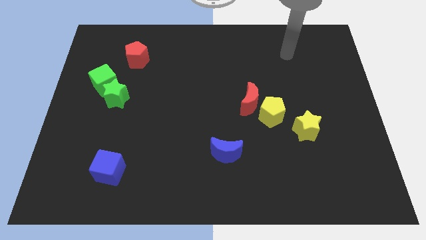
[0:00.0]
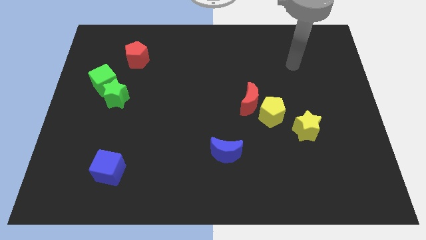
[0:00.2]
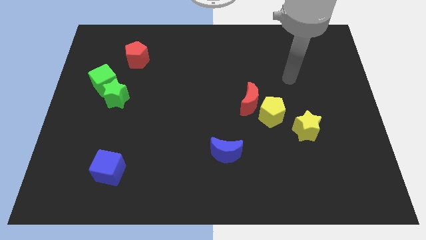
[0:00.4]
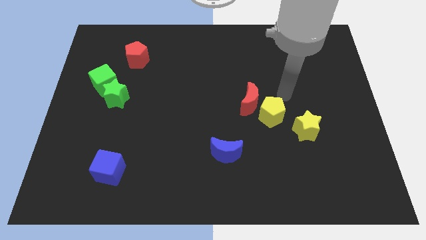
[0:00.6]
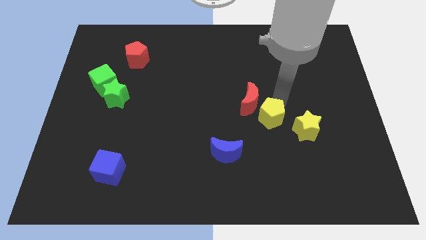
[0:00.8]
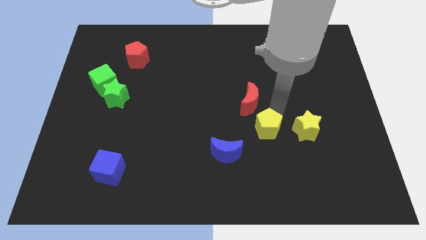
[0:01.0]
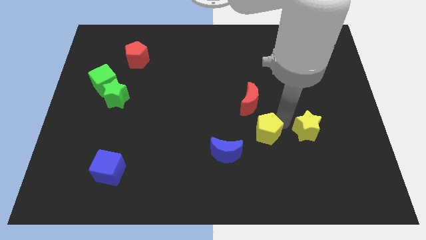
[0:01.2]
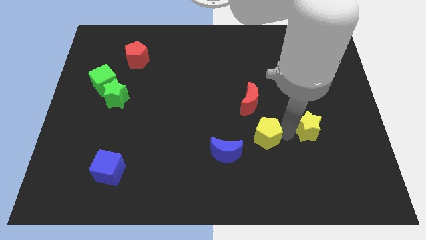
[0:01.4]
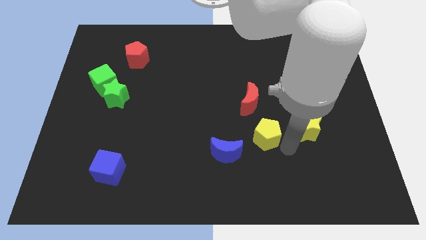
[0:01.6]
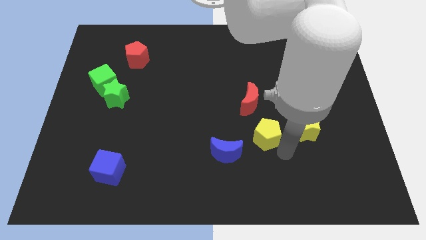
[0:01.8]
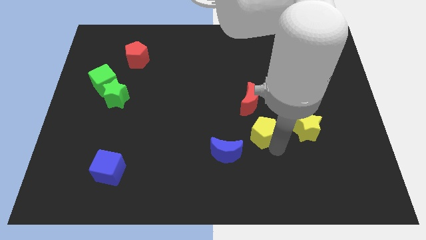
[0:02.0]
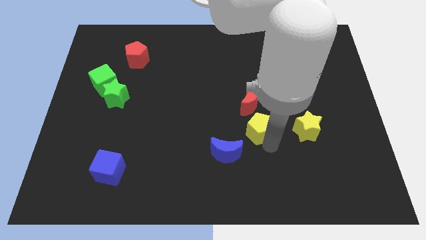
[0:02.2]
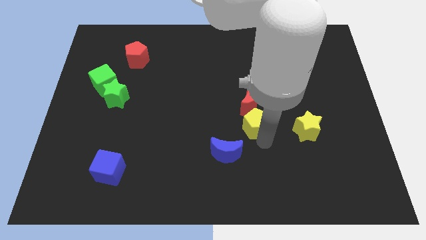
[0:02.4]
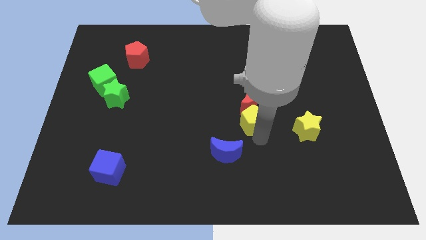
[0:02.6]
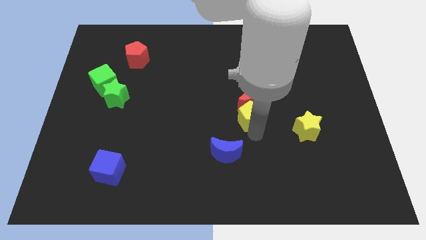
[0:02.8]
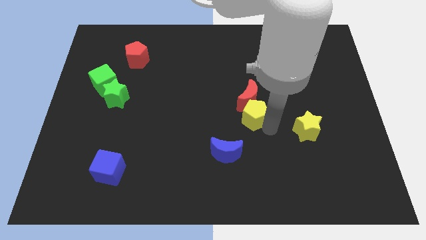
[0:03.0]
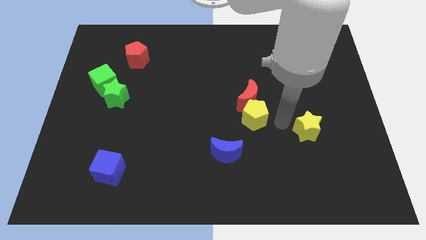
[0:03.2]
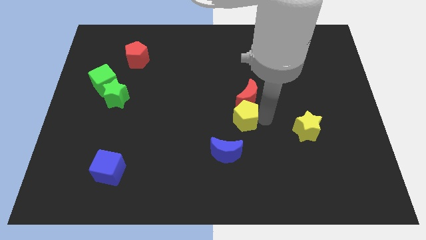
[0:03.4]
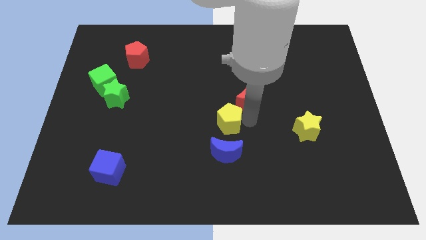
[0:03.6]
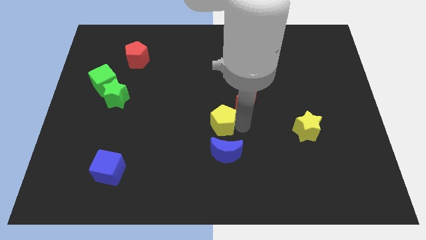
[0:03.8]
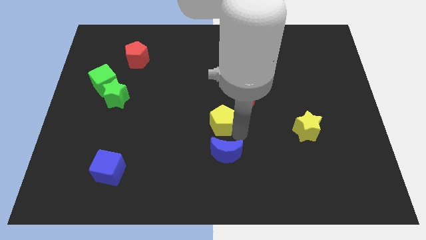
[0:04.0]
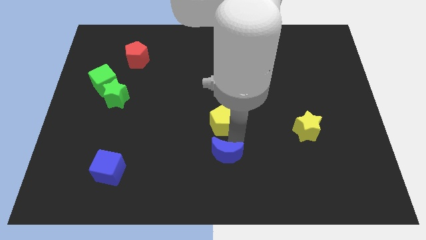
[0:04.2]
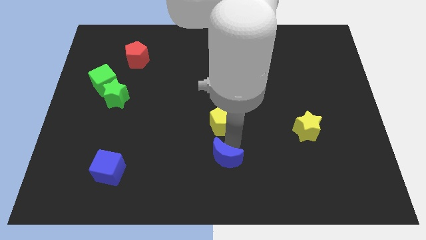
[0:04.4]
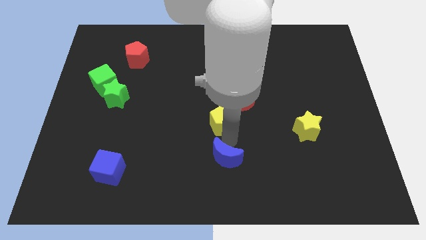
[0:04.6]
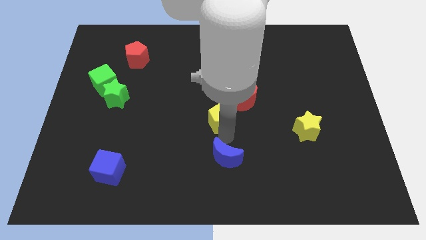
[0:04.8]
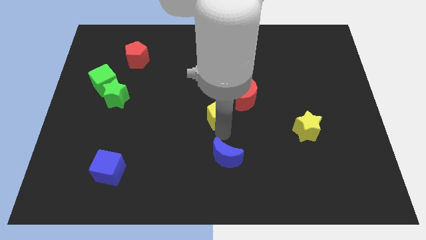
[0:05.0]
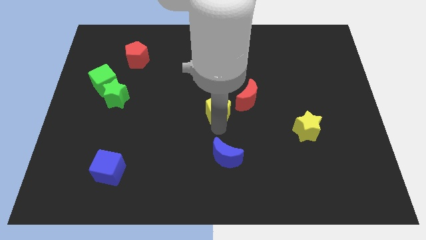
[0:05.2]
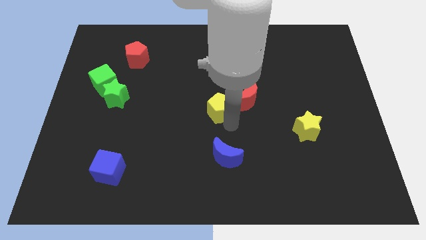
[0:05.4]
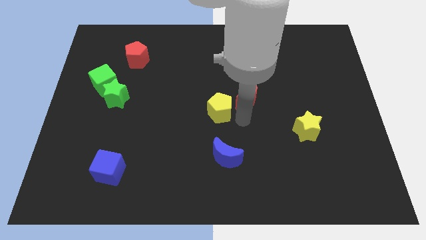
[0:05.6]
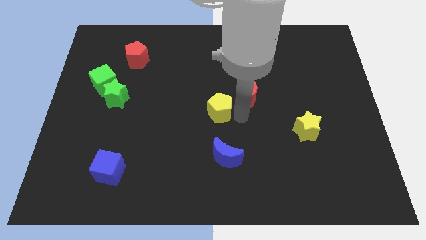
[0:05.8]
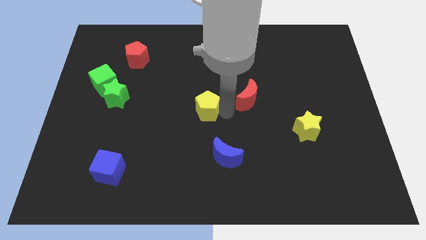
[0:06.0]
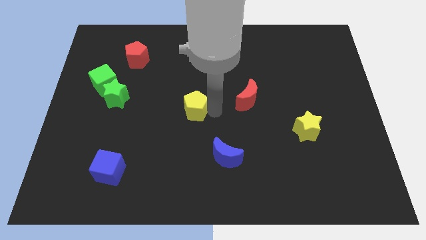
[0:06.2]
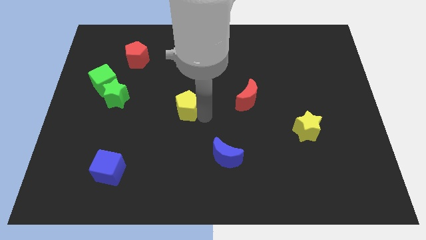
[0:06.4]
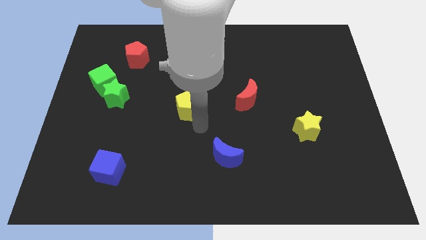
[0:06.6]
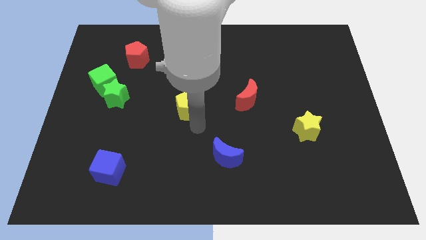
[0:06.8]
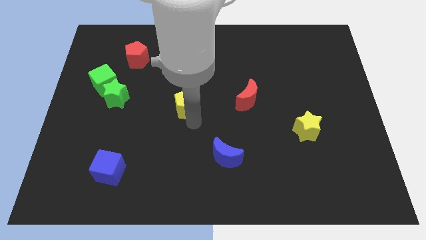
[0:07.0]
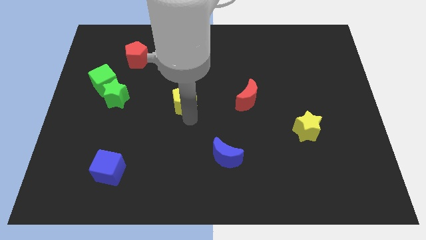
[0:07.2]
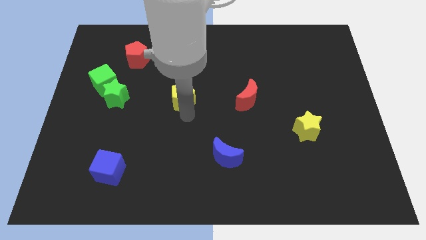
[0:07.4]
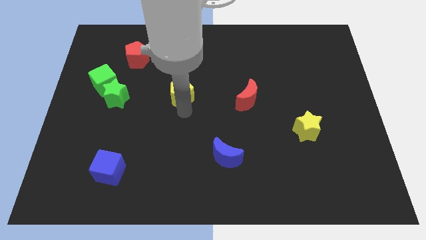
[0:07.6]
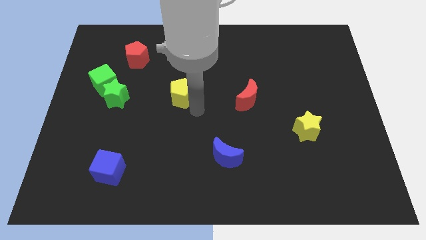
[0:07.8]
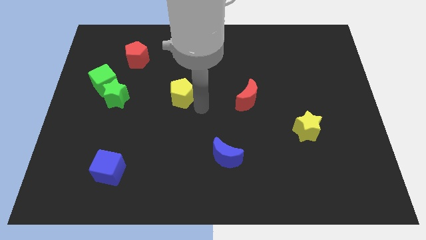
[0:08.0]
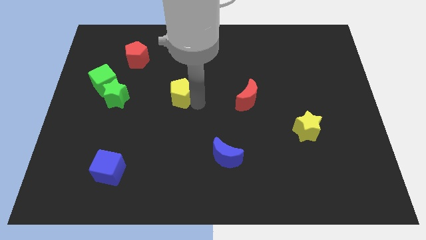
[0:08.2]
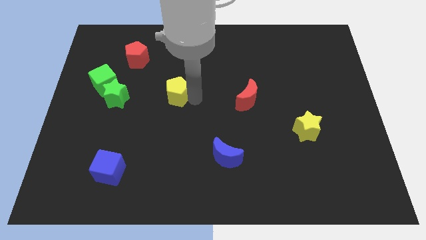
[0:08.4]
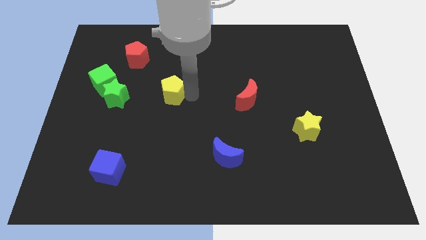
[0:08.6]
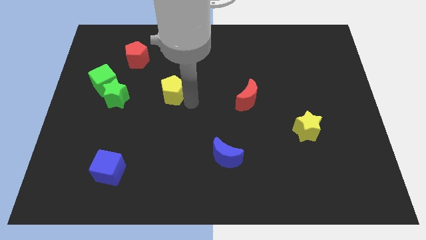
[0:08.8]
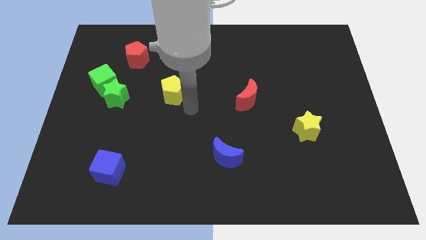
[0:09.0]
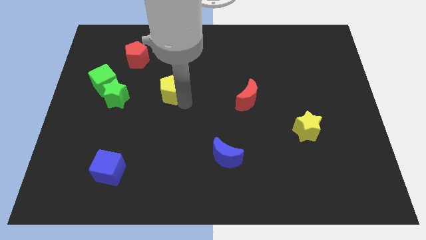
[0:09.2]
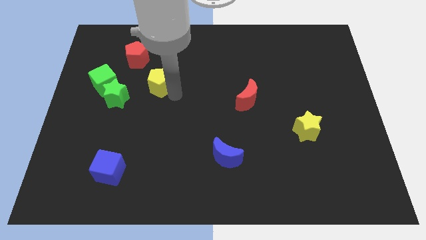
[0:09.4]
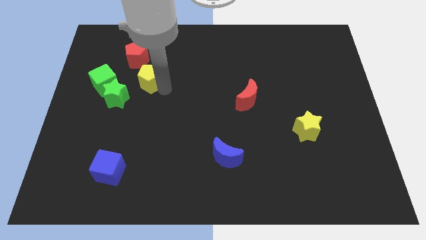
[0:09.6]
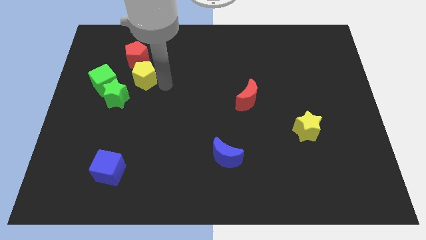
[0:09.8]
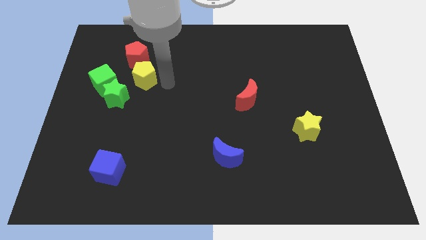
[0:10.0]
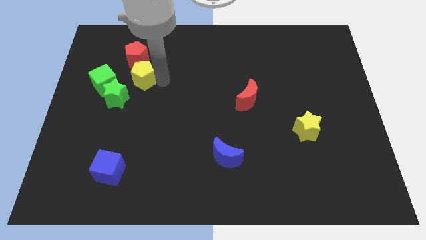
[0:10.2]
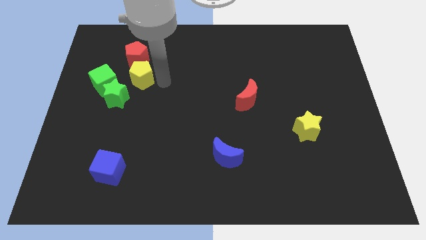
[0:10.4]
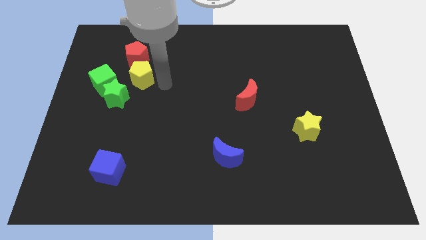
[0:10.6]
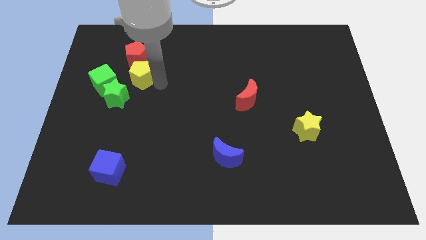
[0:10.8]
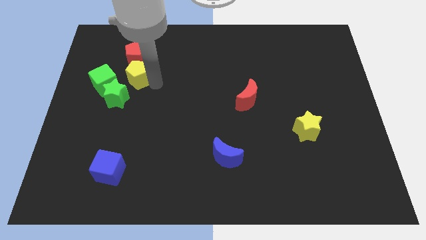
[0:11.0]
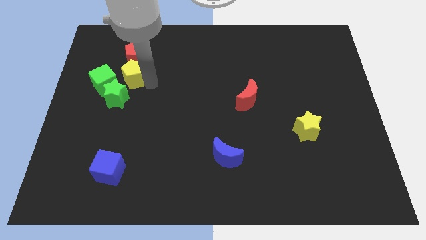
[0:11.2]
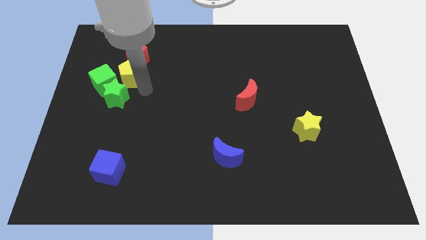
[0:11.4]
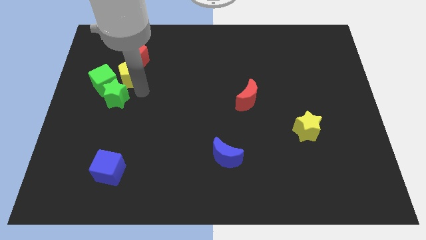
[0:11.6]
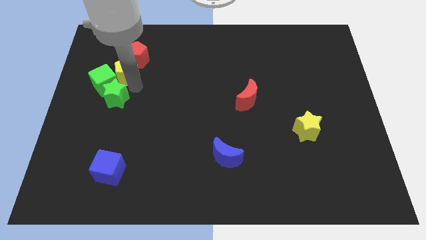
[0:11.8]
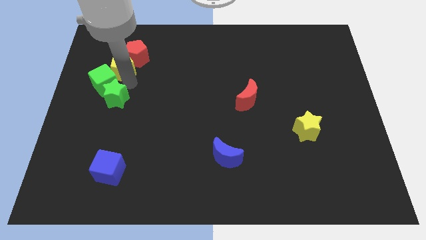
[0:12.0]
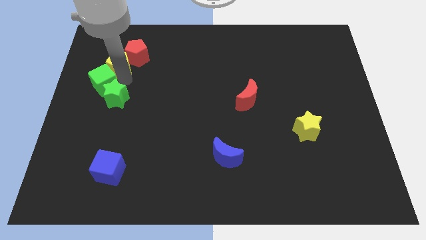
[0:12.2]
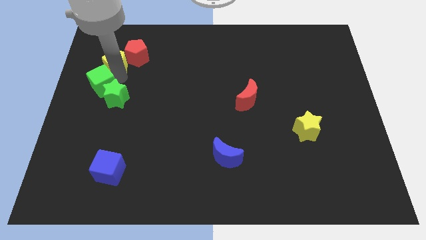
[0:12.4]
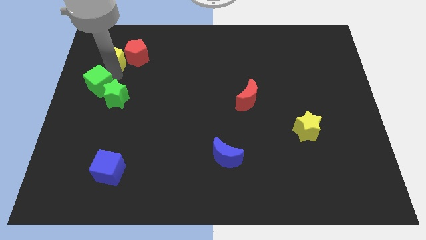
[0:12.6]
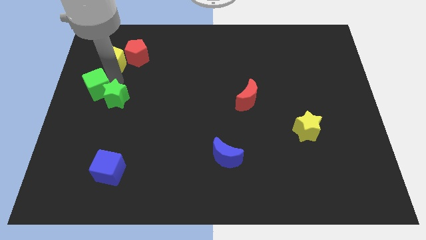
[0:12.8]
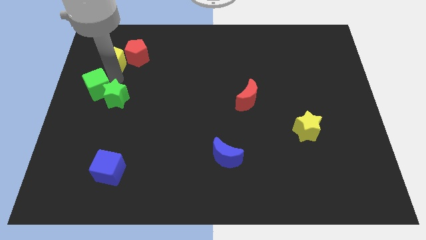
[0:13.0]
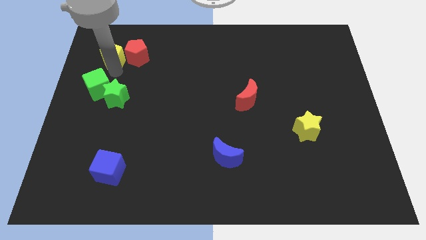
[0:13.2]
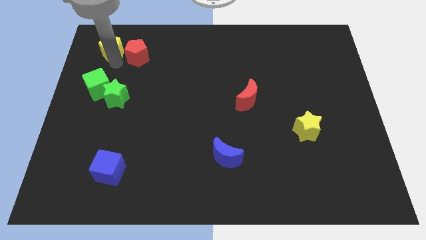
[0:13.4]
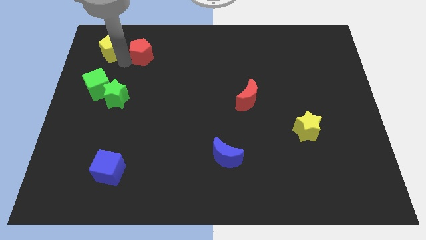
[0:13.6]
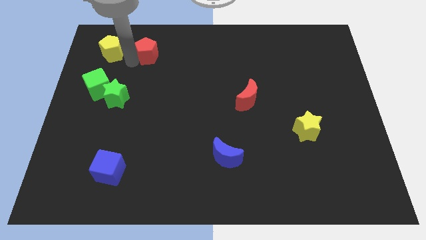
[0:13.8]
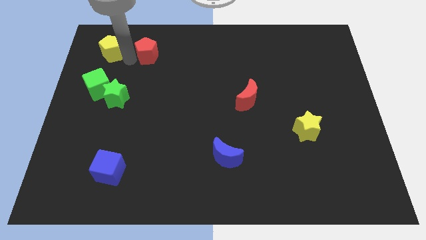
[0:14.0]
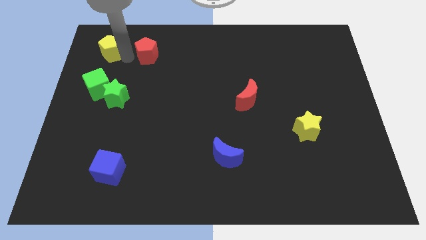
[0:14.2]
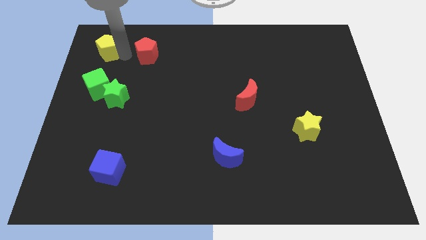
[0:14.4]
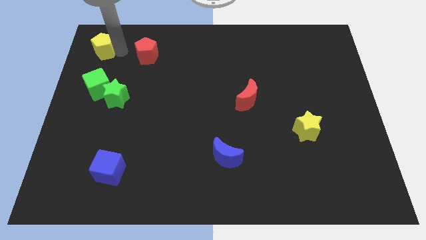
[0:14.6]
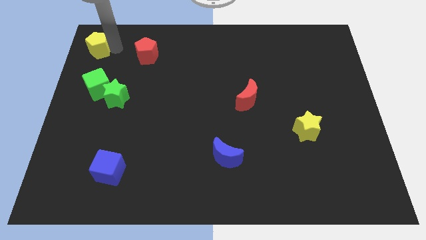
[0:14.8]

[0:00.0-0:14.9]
slide the yellow pentagon to the top left of the board
